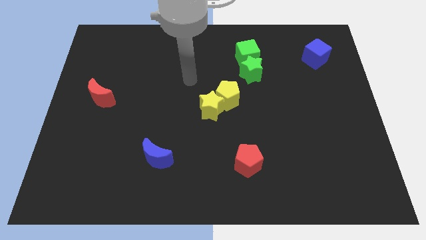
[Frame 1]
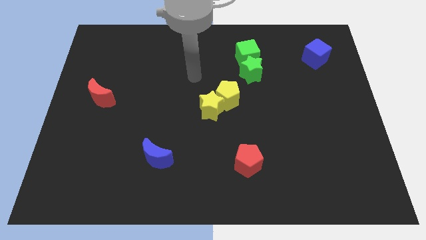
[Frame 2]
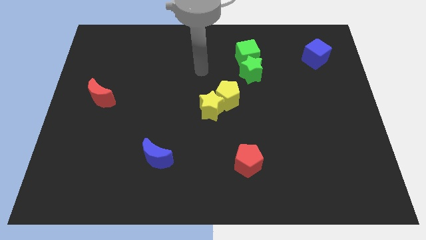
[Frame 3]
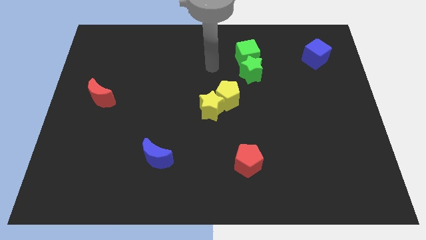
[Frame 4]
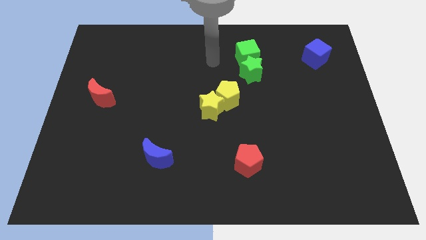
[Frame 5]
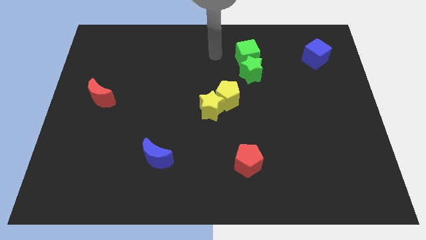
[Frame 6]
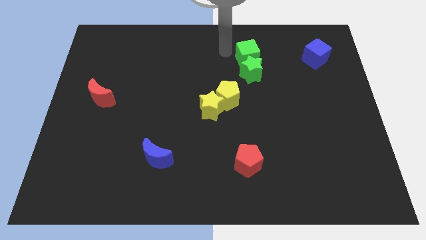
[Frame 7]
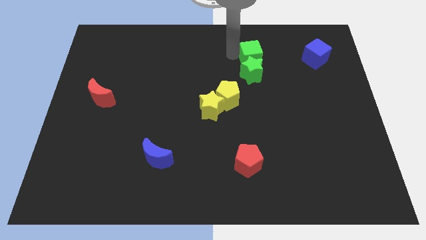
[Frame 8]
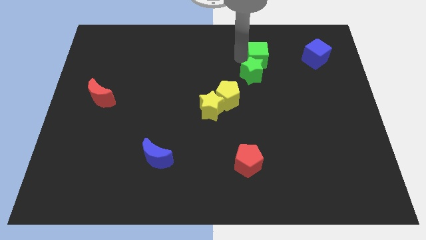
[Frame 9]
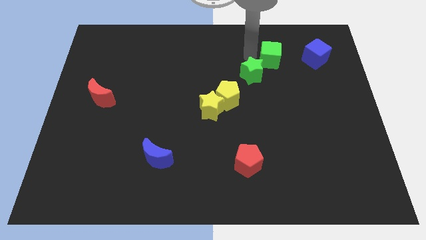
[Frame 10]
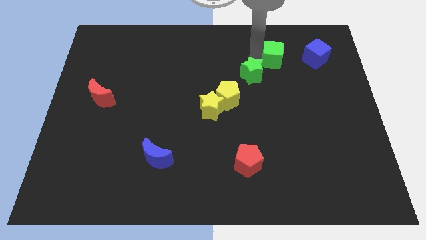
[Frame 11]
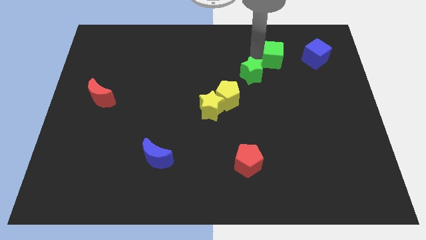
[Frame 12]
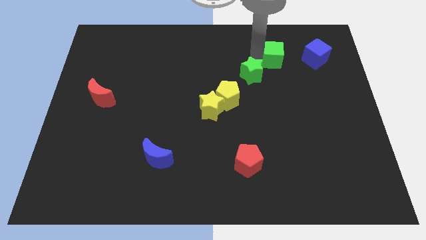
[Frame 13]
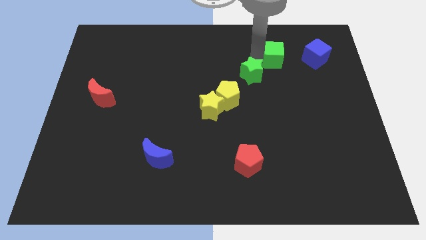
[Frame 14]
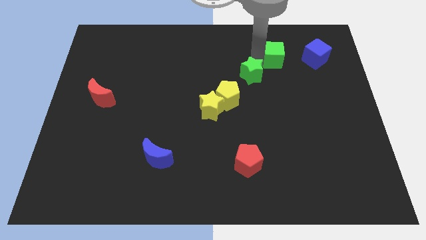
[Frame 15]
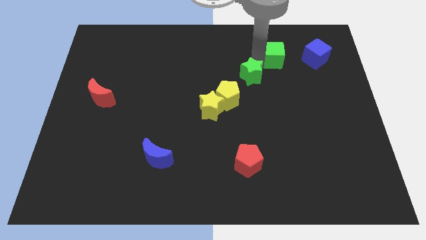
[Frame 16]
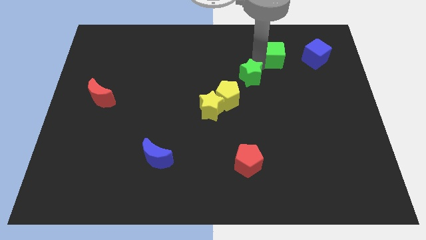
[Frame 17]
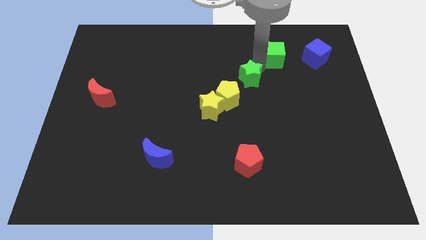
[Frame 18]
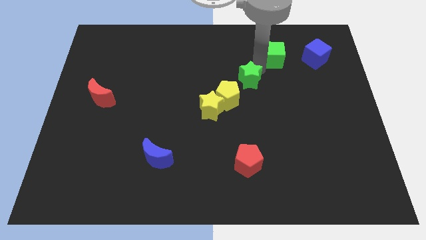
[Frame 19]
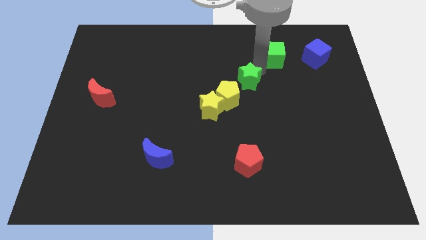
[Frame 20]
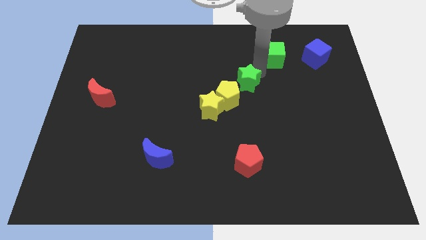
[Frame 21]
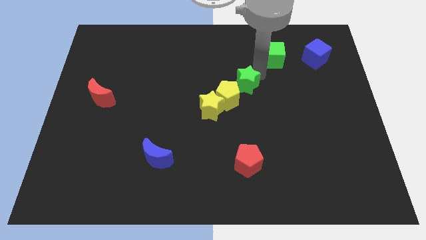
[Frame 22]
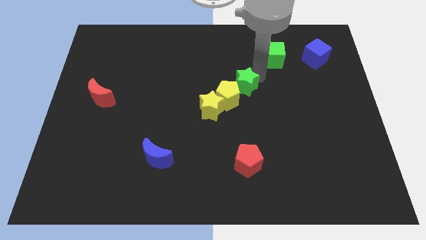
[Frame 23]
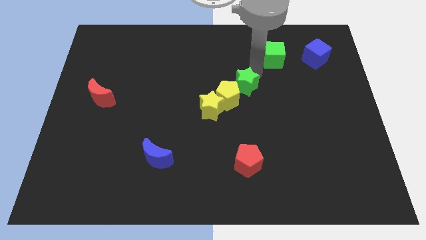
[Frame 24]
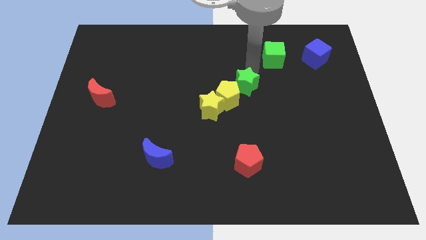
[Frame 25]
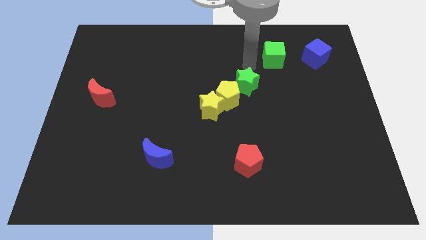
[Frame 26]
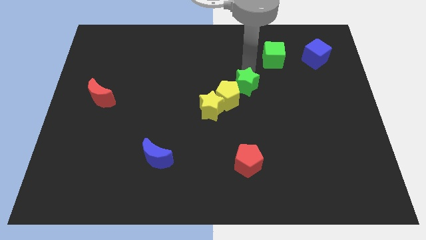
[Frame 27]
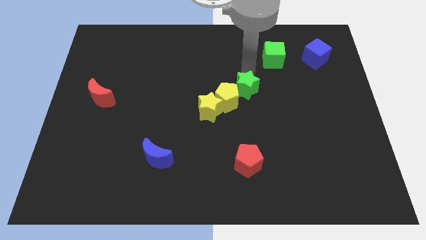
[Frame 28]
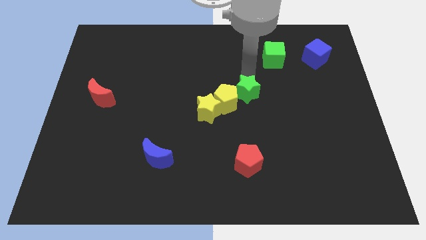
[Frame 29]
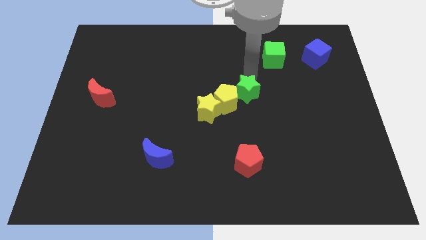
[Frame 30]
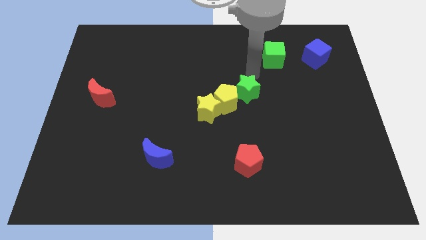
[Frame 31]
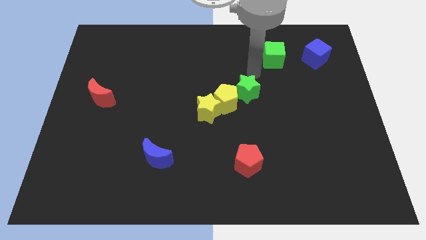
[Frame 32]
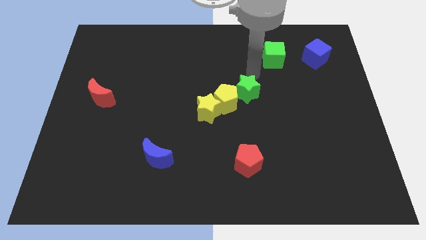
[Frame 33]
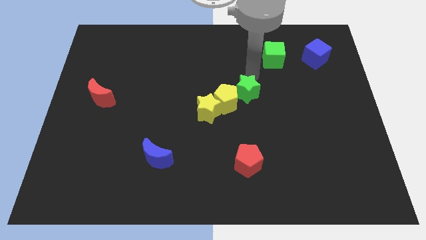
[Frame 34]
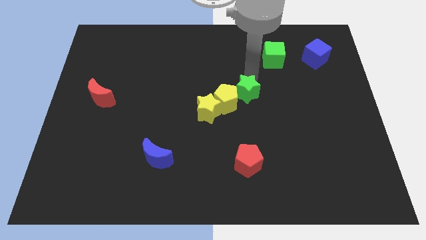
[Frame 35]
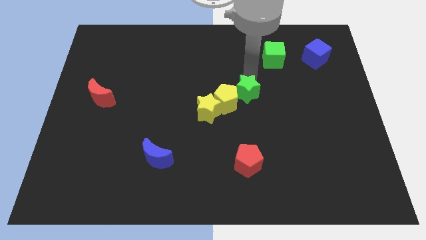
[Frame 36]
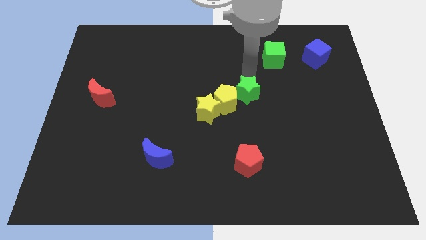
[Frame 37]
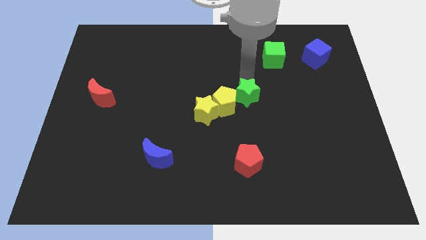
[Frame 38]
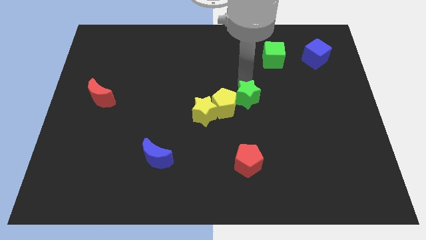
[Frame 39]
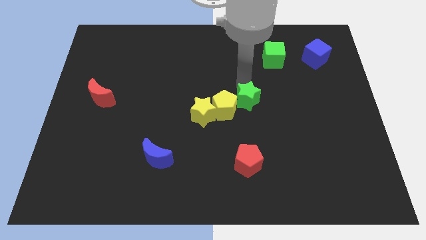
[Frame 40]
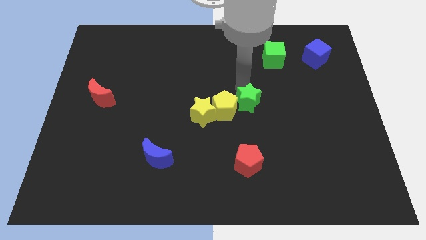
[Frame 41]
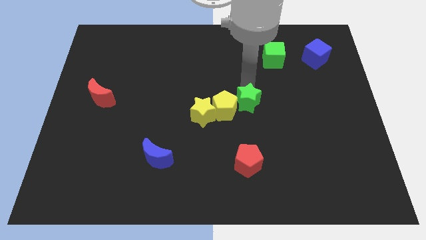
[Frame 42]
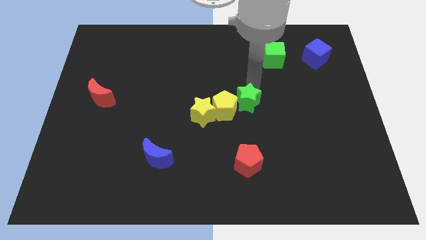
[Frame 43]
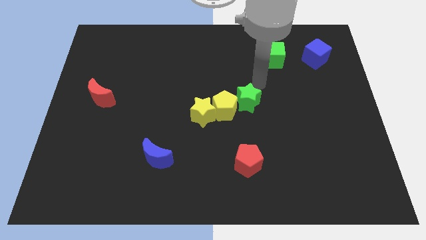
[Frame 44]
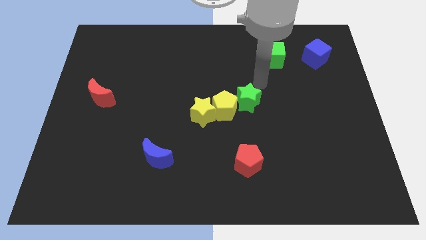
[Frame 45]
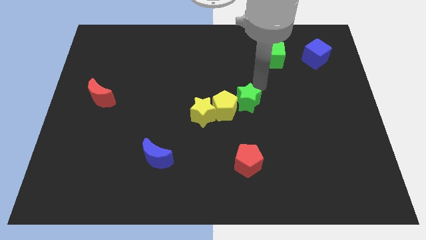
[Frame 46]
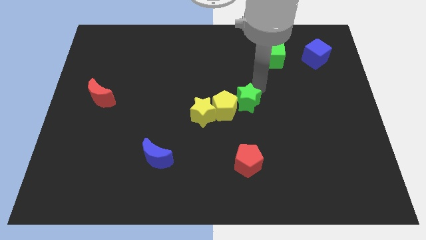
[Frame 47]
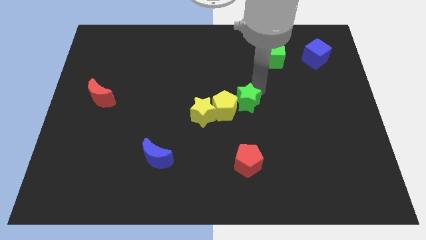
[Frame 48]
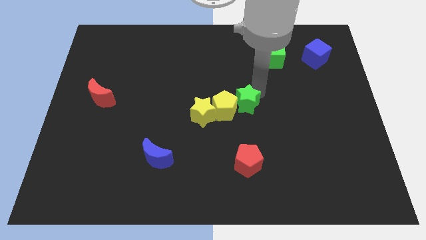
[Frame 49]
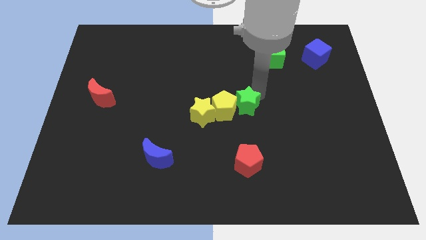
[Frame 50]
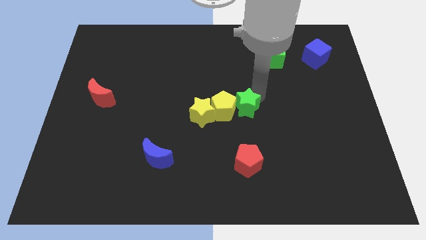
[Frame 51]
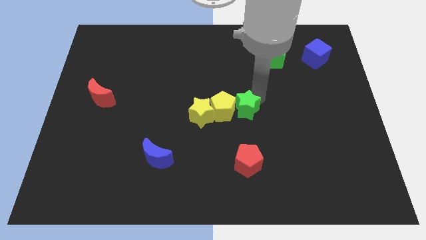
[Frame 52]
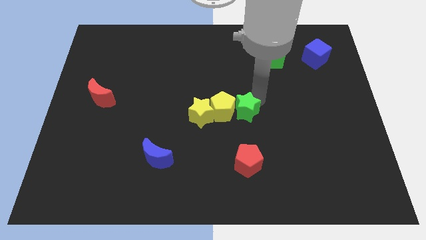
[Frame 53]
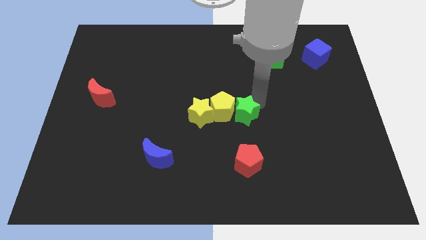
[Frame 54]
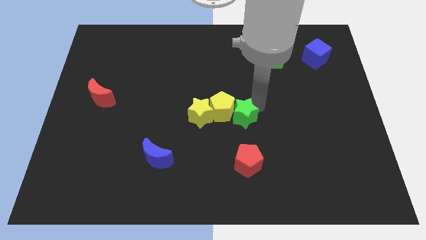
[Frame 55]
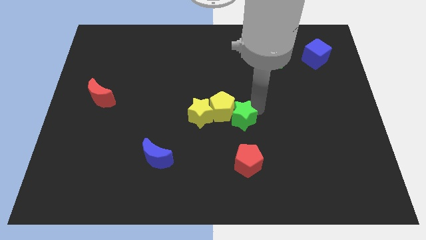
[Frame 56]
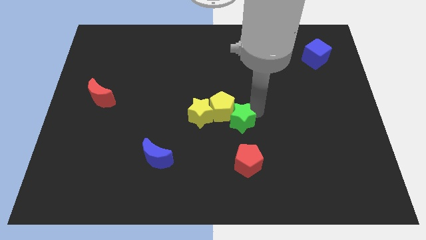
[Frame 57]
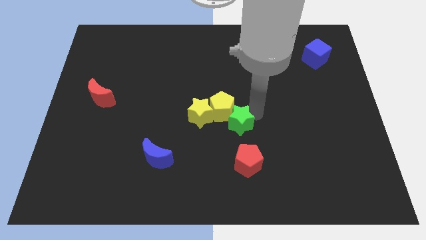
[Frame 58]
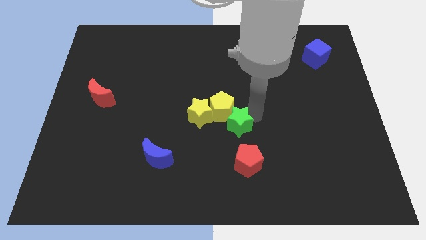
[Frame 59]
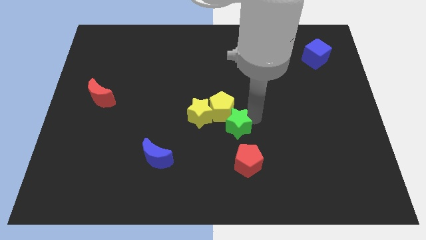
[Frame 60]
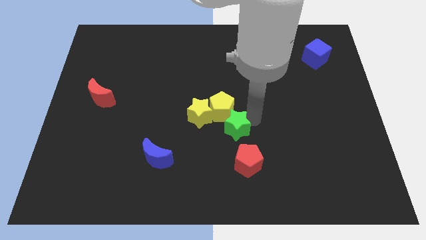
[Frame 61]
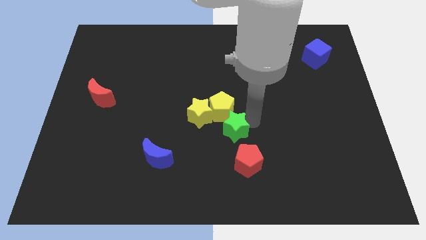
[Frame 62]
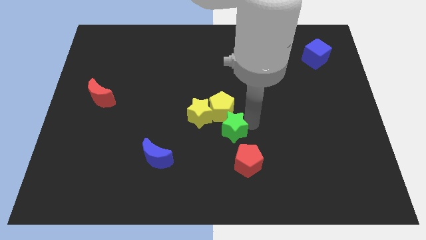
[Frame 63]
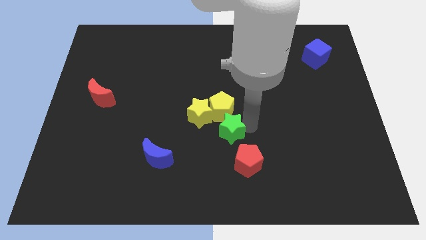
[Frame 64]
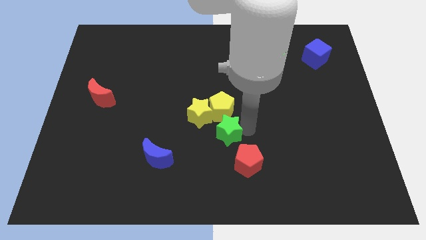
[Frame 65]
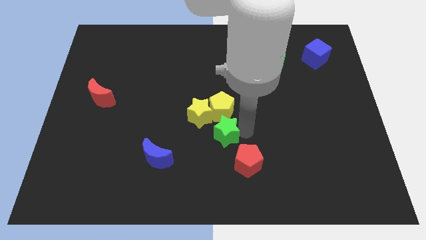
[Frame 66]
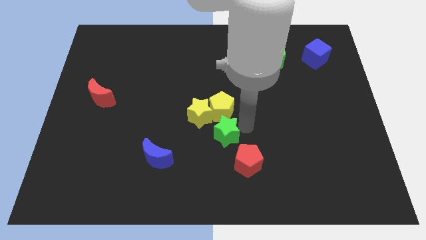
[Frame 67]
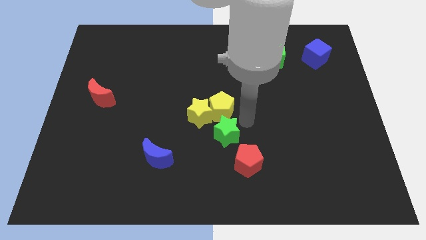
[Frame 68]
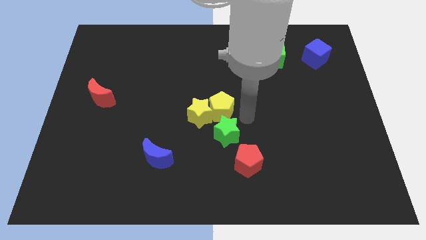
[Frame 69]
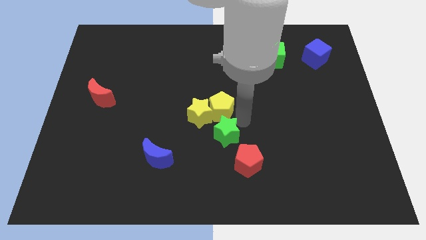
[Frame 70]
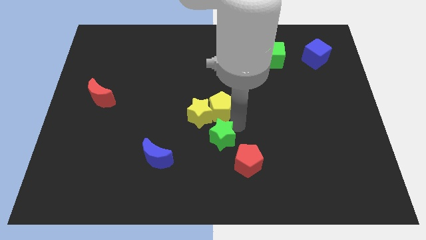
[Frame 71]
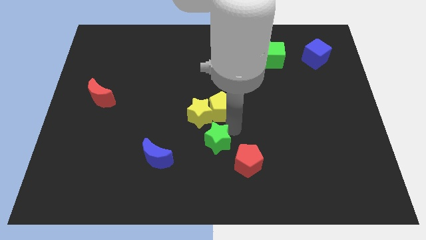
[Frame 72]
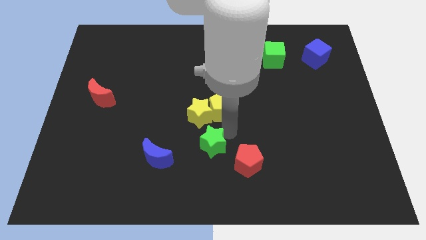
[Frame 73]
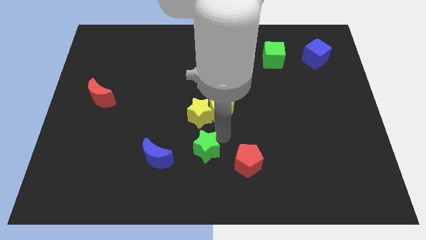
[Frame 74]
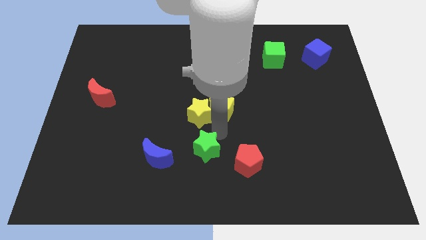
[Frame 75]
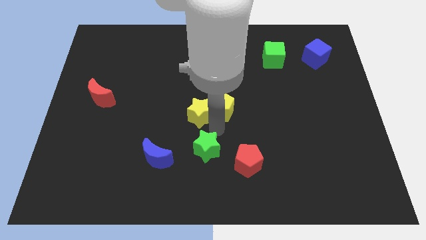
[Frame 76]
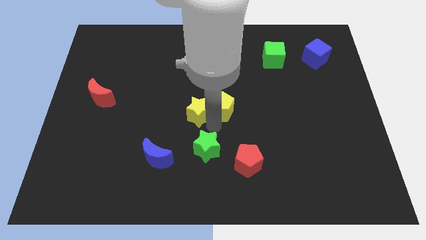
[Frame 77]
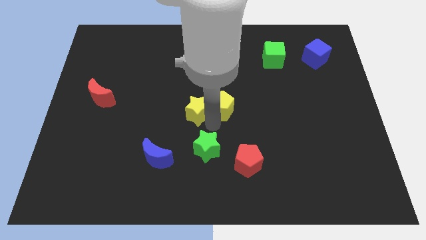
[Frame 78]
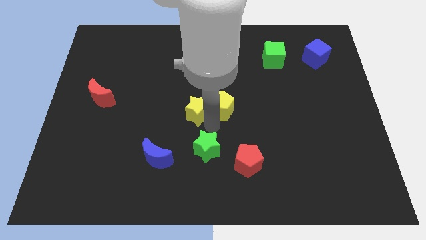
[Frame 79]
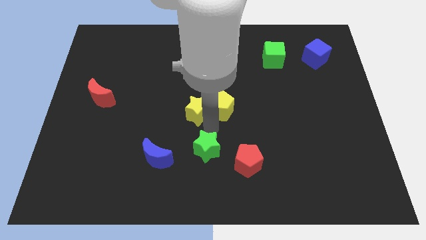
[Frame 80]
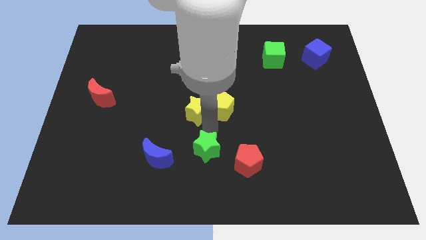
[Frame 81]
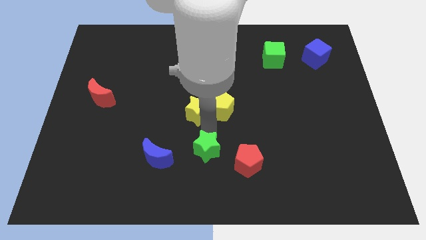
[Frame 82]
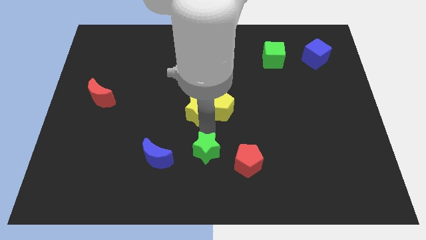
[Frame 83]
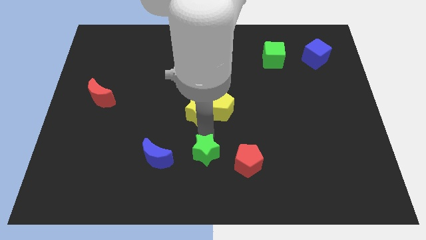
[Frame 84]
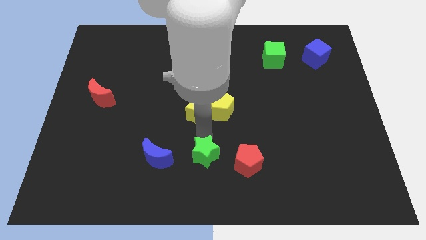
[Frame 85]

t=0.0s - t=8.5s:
put the green star to the bottom side
